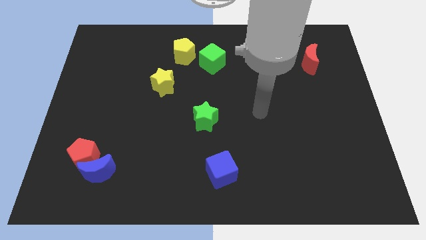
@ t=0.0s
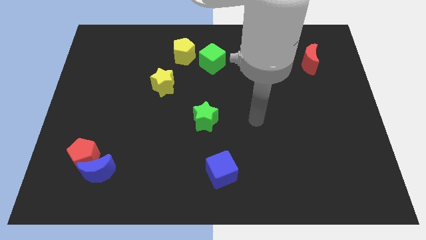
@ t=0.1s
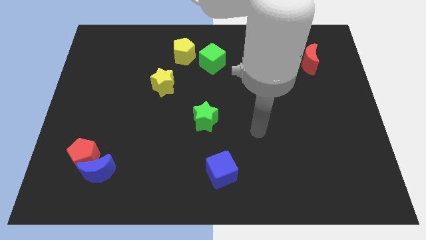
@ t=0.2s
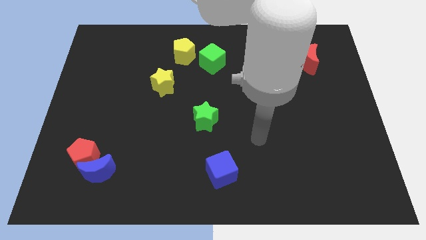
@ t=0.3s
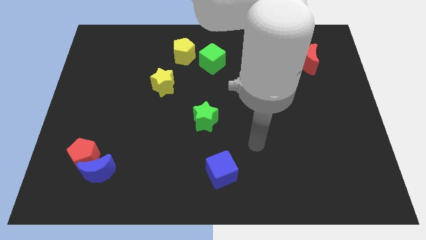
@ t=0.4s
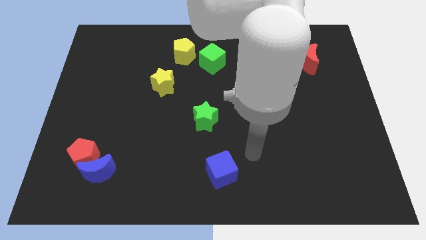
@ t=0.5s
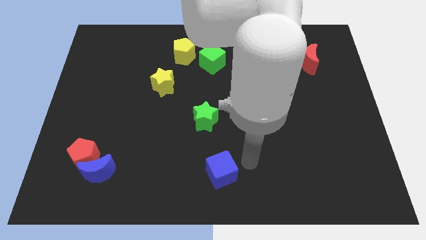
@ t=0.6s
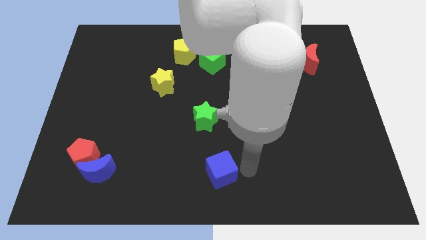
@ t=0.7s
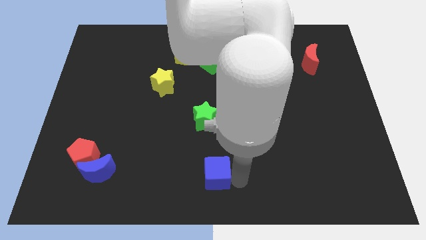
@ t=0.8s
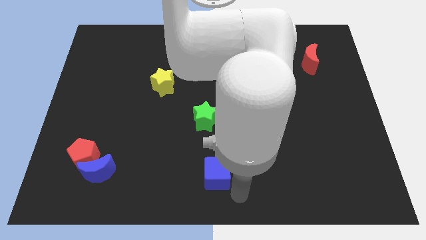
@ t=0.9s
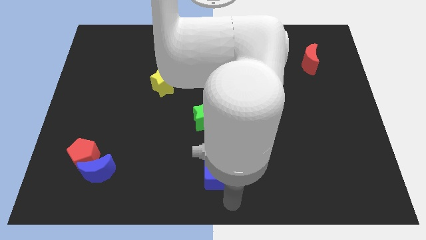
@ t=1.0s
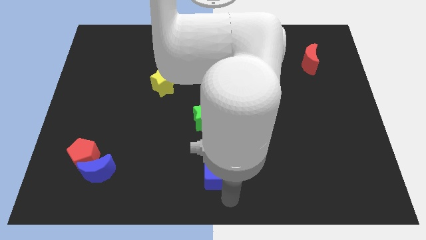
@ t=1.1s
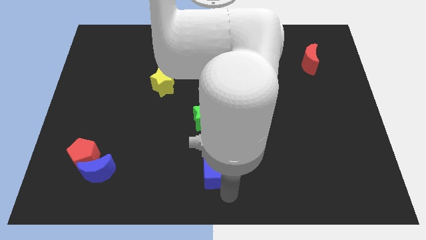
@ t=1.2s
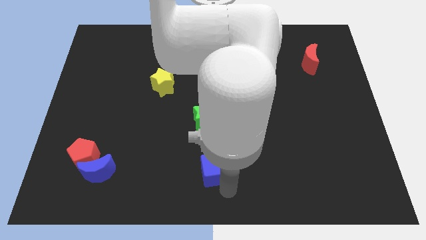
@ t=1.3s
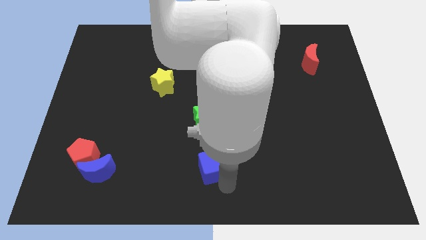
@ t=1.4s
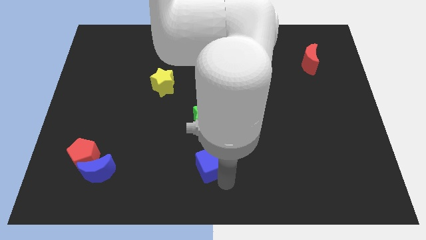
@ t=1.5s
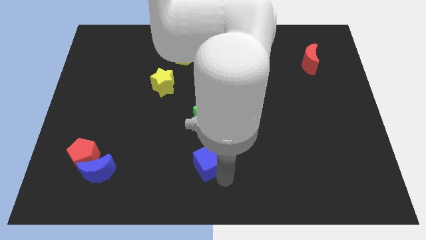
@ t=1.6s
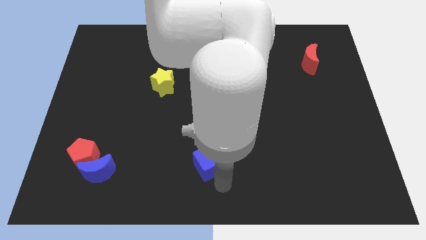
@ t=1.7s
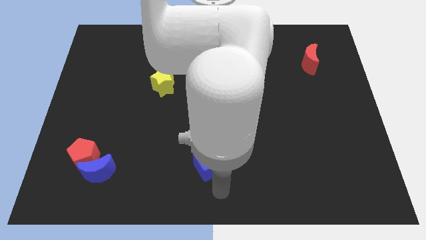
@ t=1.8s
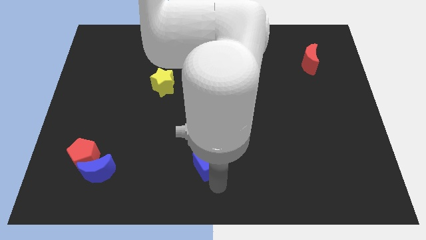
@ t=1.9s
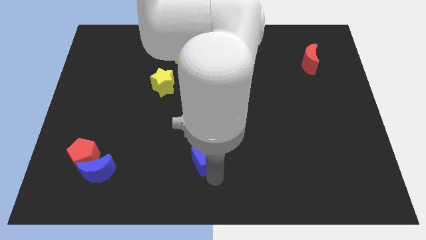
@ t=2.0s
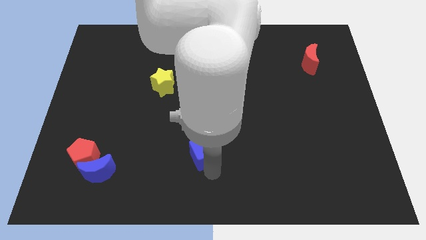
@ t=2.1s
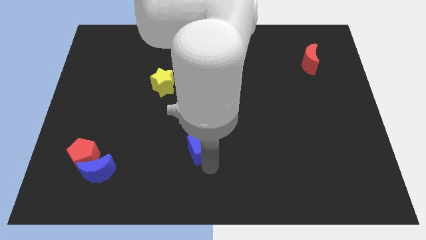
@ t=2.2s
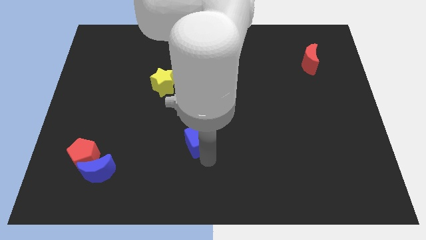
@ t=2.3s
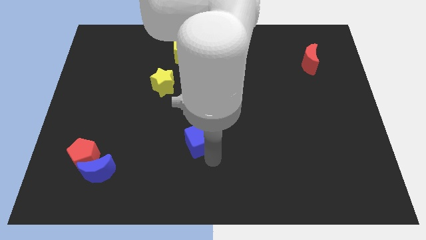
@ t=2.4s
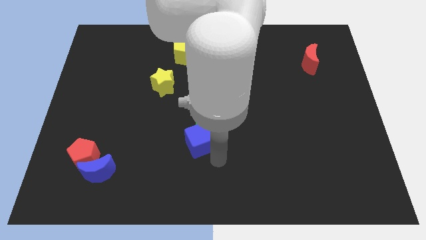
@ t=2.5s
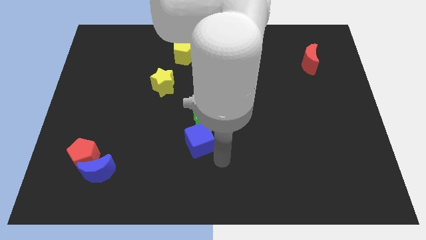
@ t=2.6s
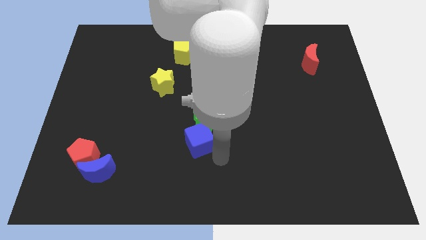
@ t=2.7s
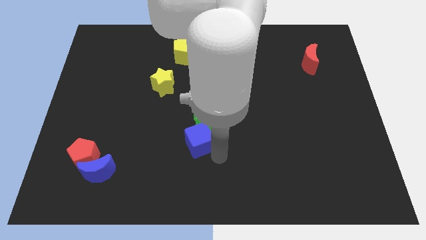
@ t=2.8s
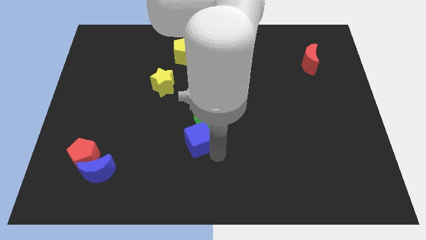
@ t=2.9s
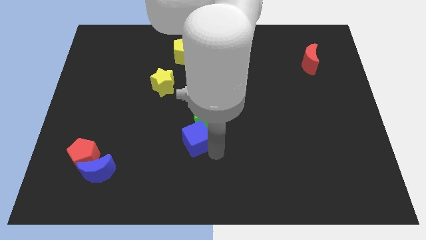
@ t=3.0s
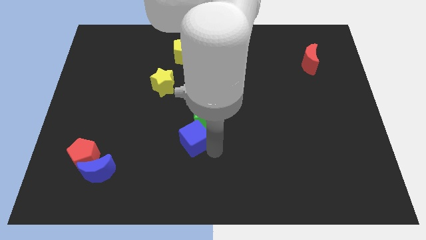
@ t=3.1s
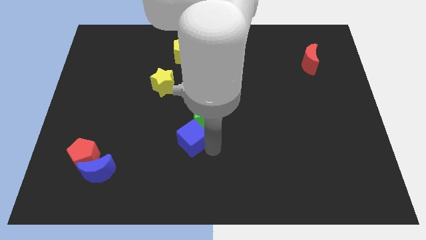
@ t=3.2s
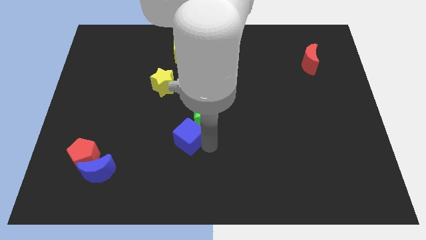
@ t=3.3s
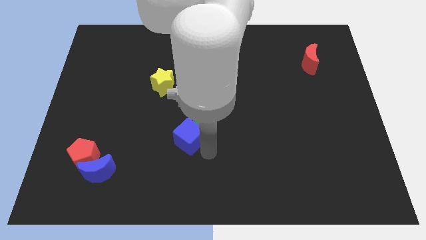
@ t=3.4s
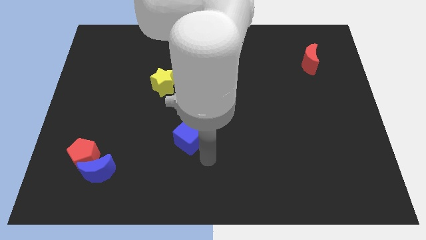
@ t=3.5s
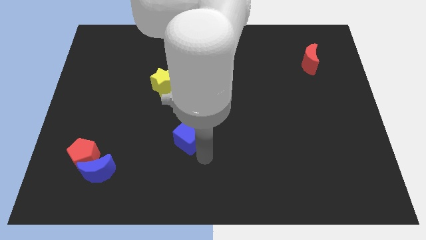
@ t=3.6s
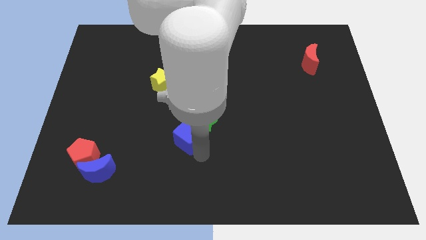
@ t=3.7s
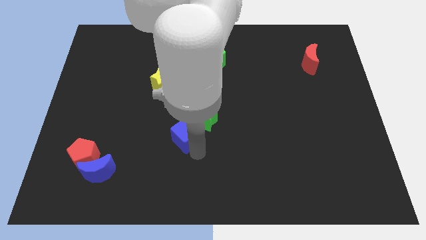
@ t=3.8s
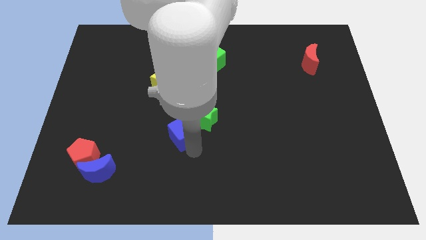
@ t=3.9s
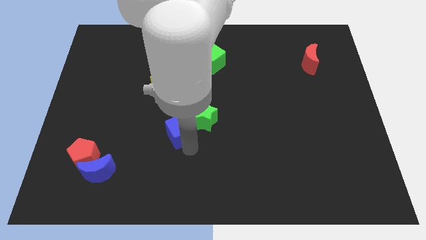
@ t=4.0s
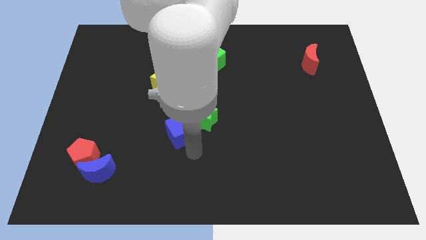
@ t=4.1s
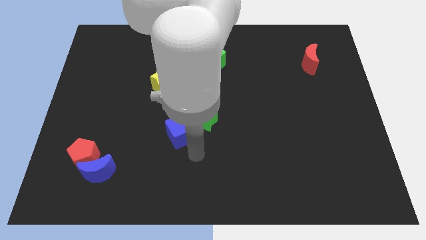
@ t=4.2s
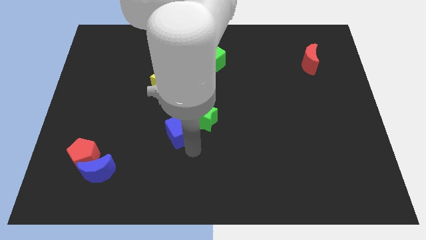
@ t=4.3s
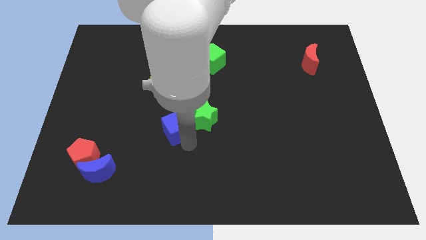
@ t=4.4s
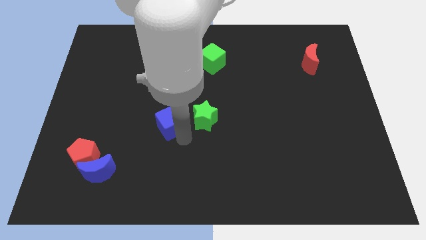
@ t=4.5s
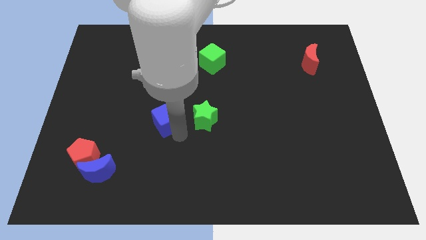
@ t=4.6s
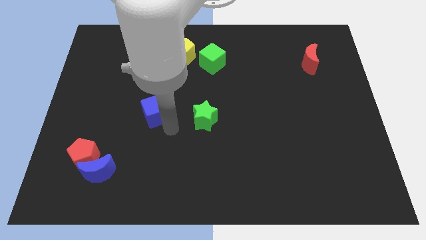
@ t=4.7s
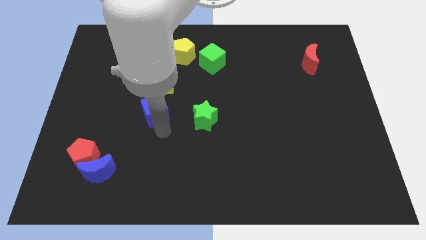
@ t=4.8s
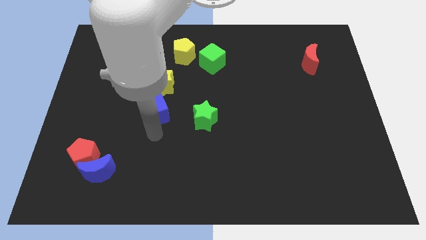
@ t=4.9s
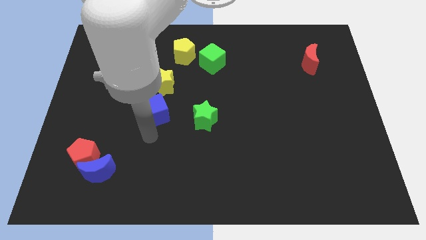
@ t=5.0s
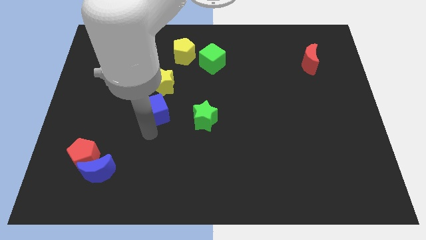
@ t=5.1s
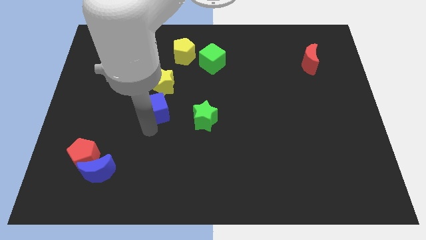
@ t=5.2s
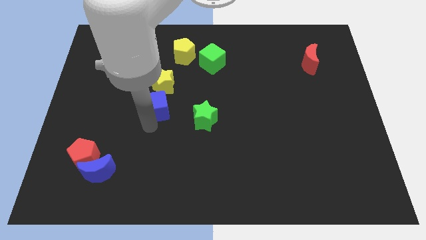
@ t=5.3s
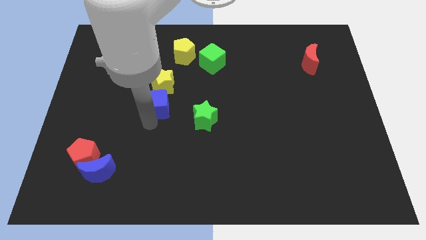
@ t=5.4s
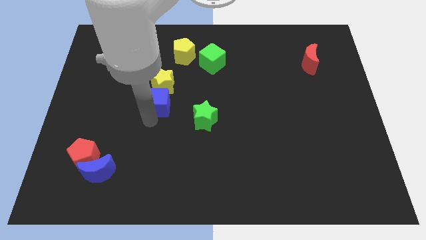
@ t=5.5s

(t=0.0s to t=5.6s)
slide the blue cube towards the yellow star

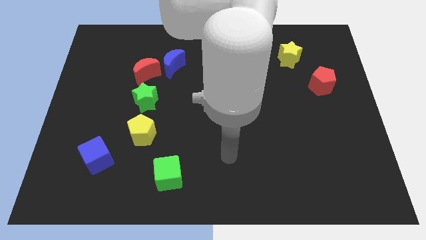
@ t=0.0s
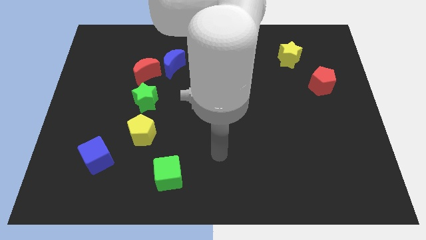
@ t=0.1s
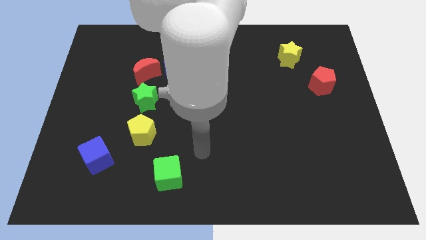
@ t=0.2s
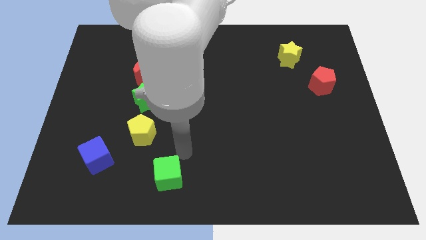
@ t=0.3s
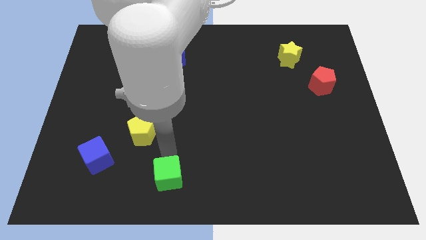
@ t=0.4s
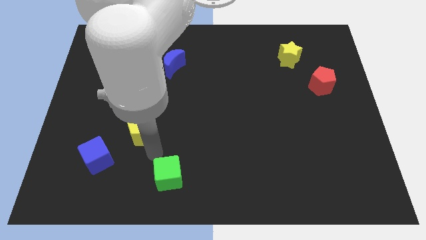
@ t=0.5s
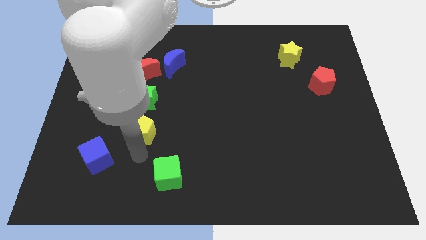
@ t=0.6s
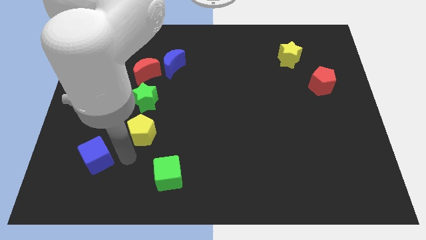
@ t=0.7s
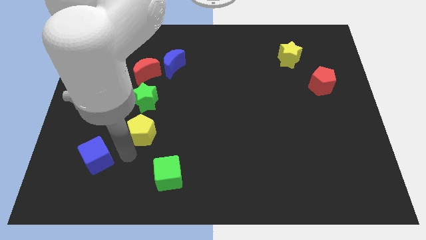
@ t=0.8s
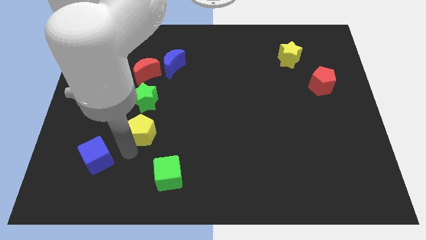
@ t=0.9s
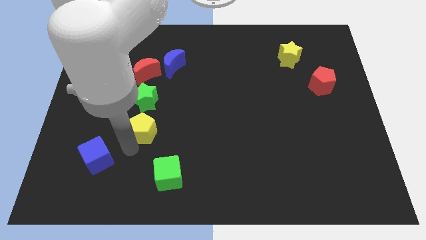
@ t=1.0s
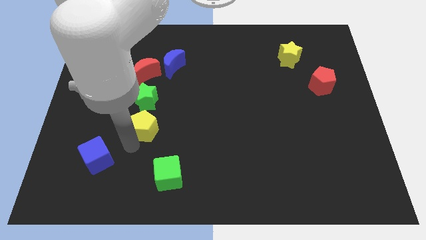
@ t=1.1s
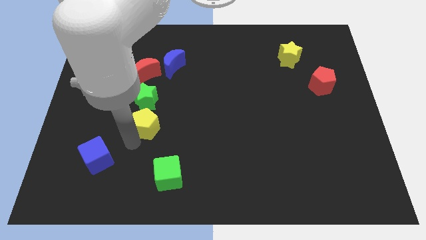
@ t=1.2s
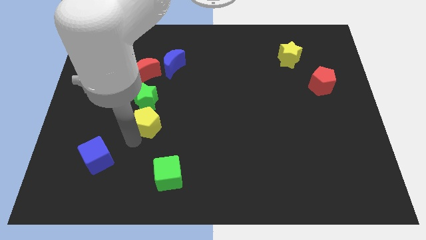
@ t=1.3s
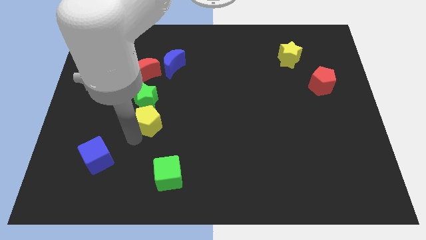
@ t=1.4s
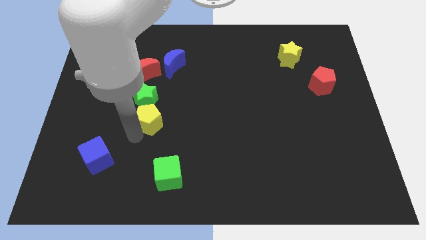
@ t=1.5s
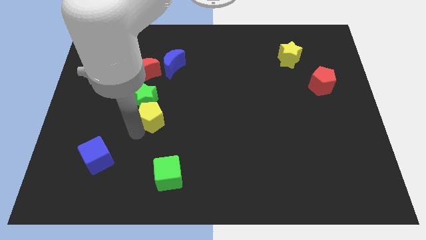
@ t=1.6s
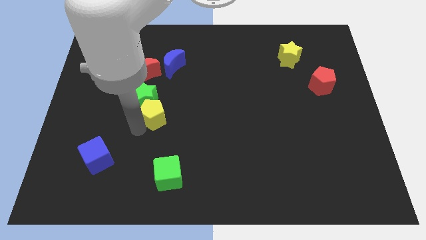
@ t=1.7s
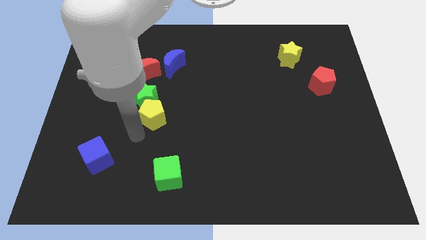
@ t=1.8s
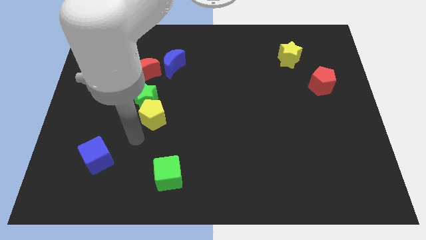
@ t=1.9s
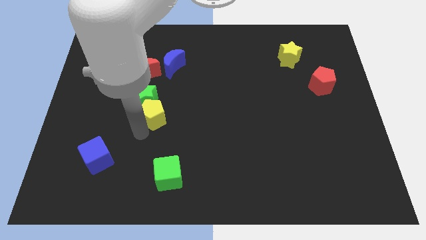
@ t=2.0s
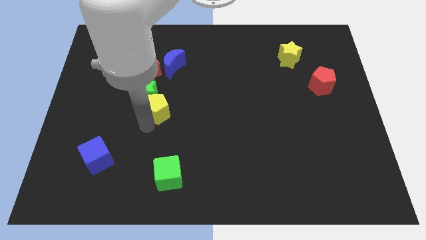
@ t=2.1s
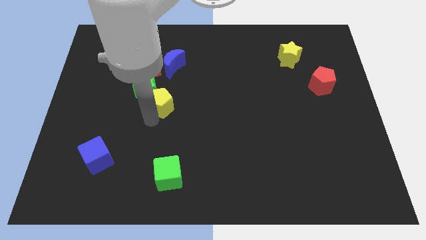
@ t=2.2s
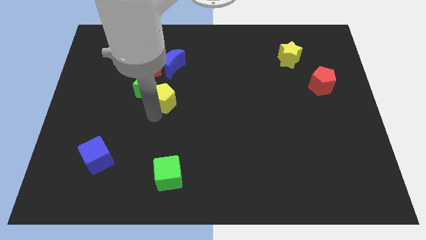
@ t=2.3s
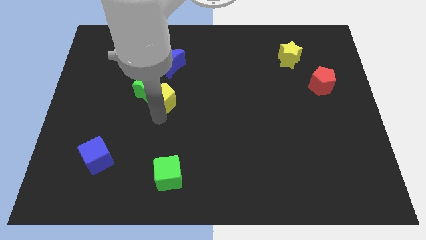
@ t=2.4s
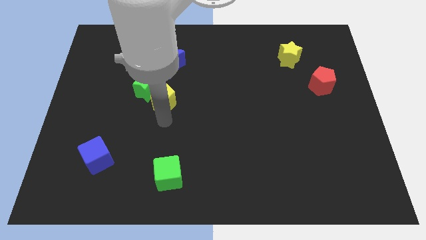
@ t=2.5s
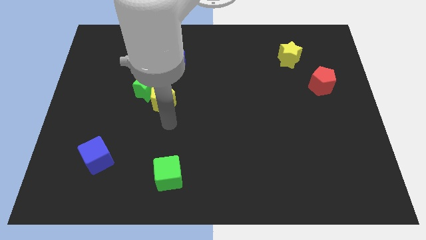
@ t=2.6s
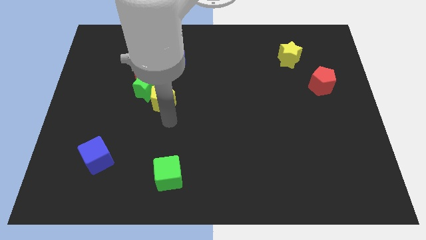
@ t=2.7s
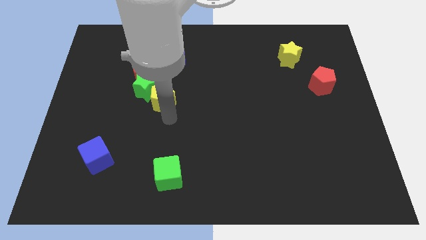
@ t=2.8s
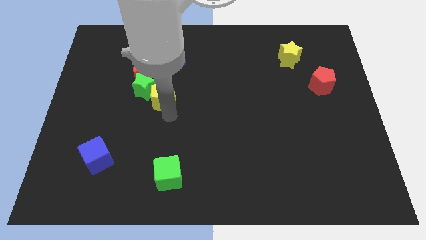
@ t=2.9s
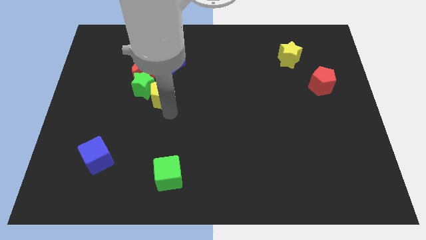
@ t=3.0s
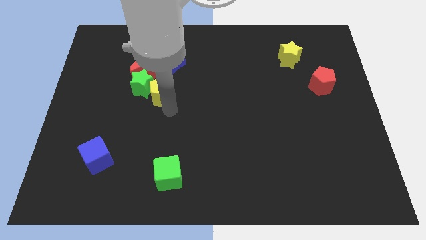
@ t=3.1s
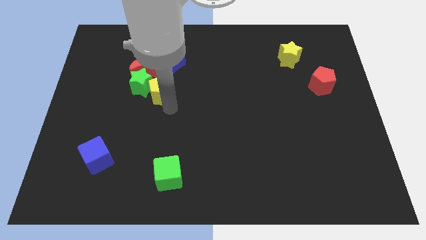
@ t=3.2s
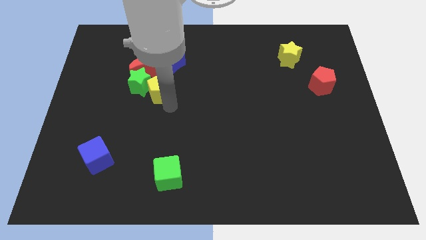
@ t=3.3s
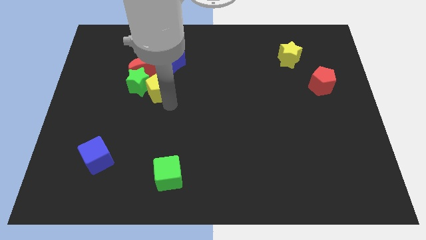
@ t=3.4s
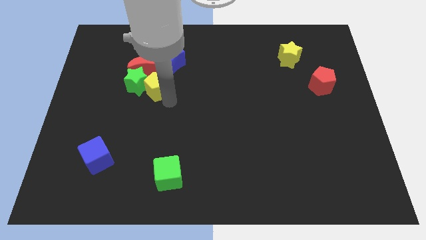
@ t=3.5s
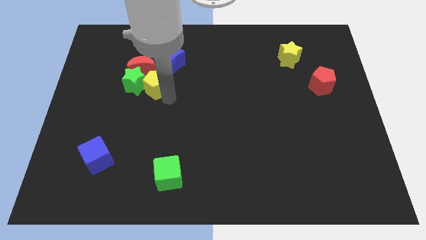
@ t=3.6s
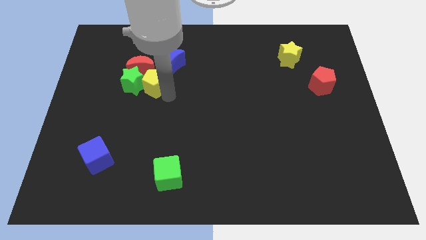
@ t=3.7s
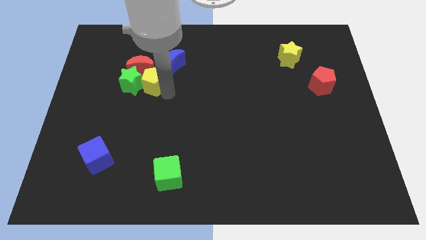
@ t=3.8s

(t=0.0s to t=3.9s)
slide the yellow pentagon to the red moon
